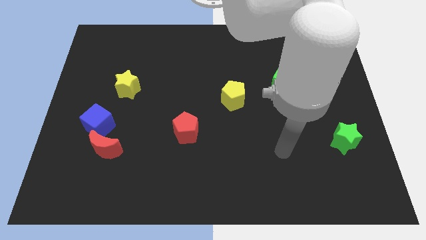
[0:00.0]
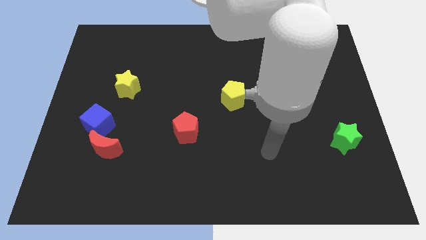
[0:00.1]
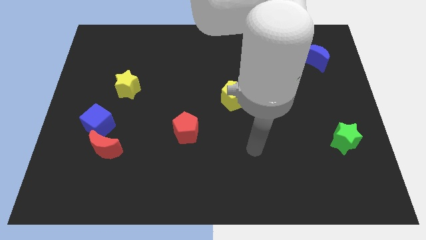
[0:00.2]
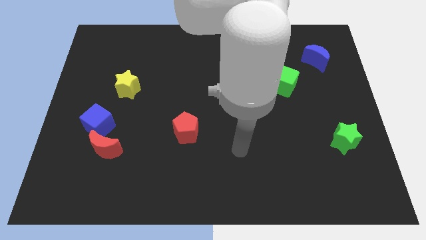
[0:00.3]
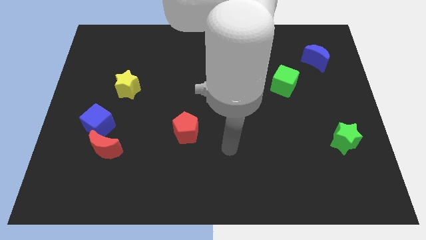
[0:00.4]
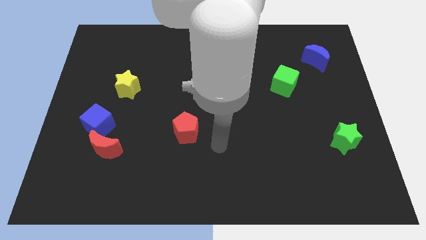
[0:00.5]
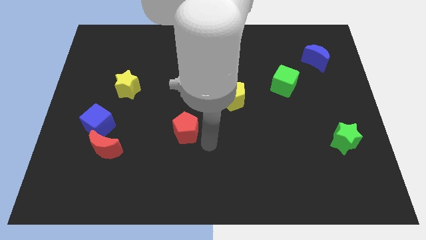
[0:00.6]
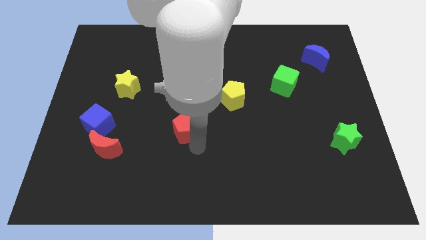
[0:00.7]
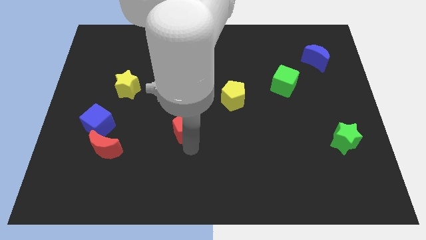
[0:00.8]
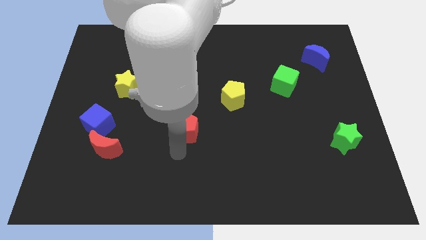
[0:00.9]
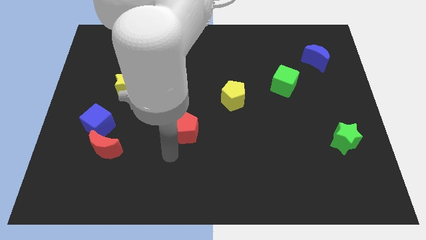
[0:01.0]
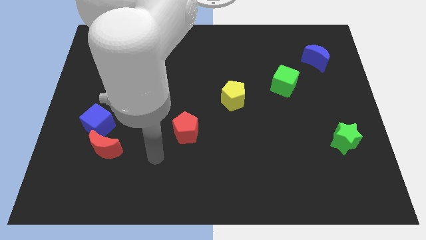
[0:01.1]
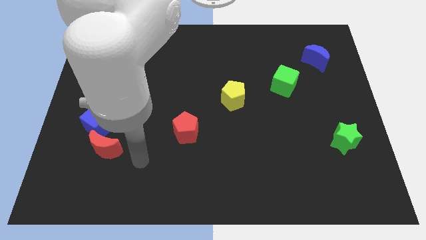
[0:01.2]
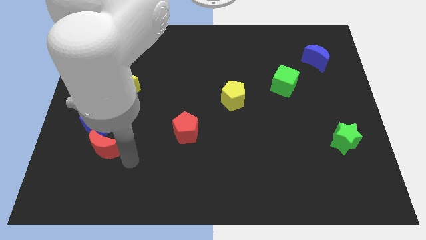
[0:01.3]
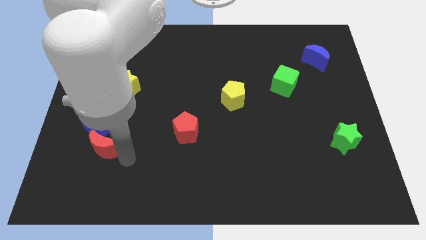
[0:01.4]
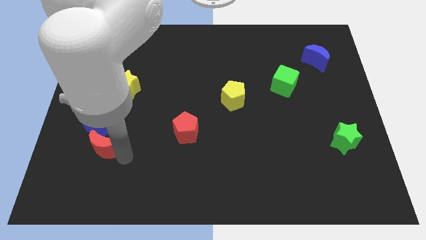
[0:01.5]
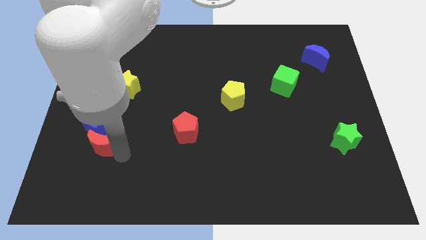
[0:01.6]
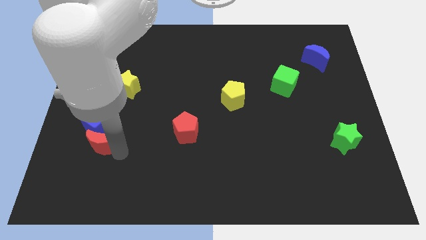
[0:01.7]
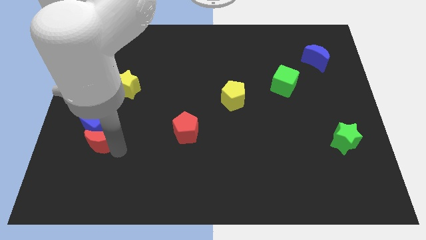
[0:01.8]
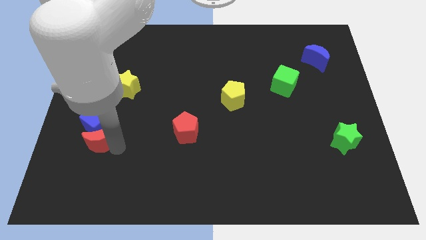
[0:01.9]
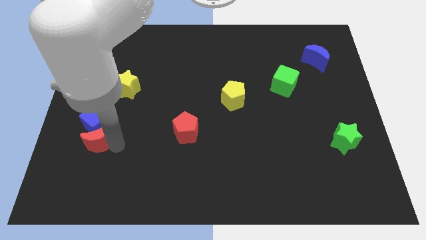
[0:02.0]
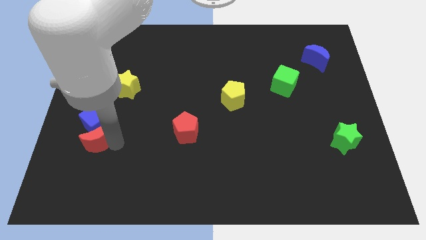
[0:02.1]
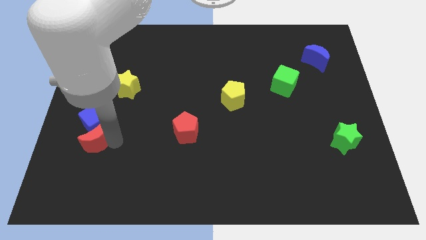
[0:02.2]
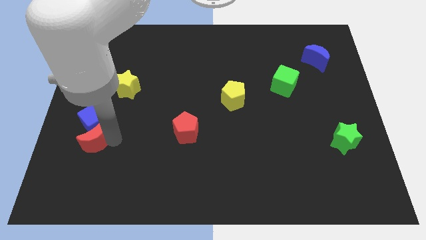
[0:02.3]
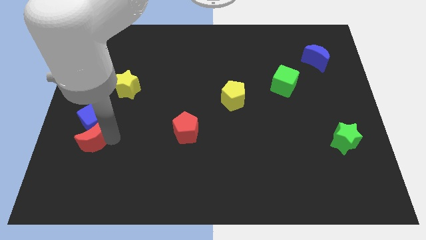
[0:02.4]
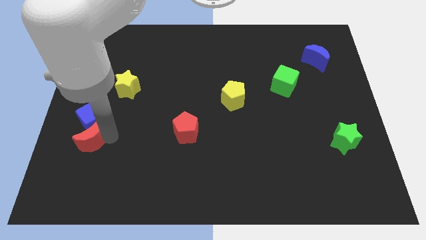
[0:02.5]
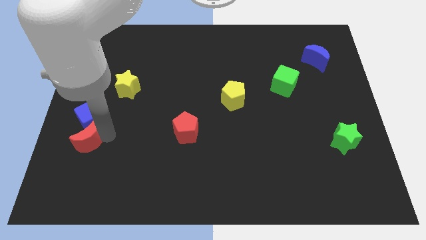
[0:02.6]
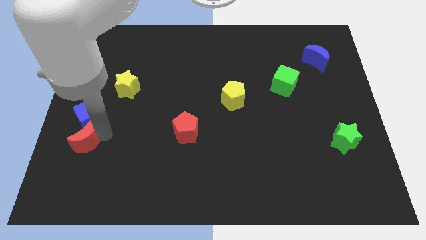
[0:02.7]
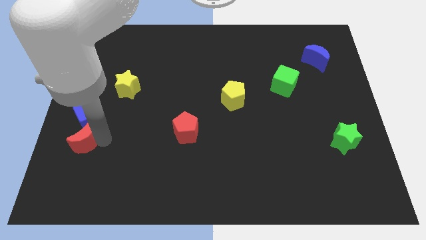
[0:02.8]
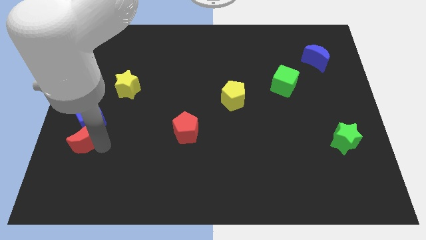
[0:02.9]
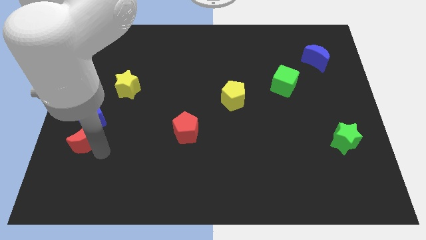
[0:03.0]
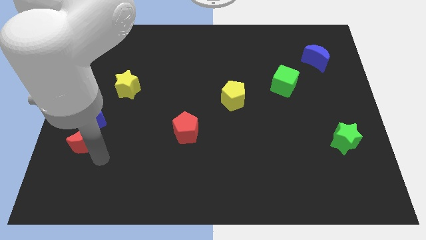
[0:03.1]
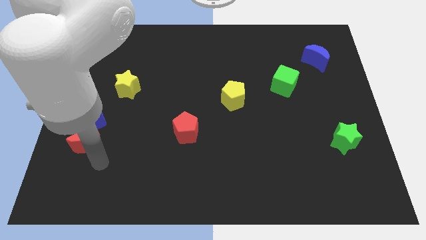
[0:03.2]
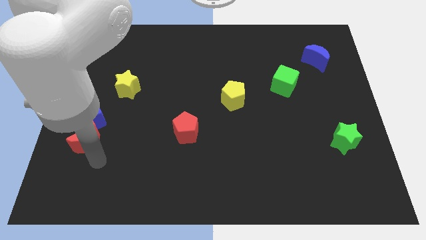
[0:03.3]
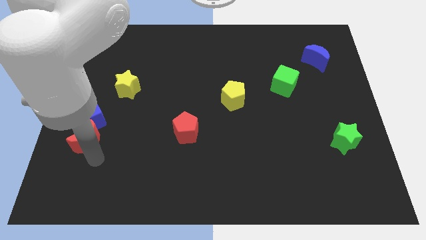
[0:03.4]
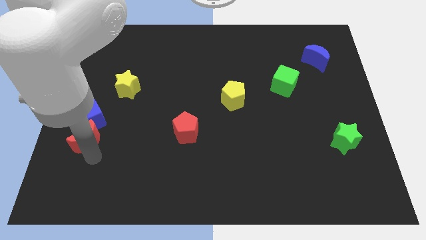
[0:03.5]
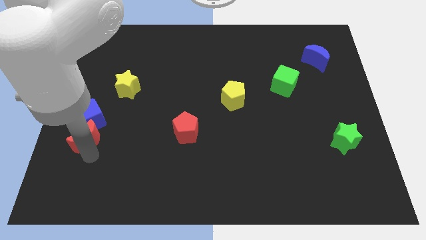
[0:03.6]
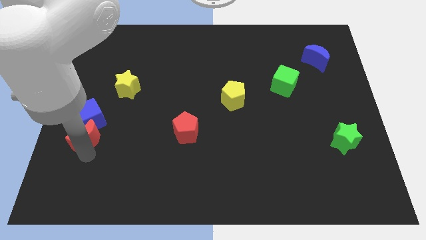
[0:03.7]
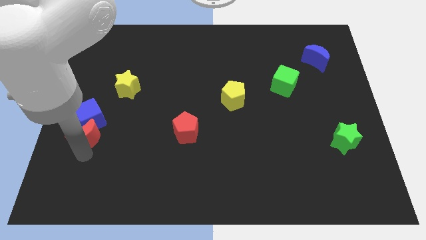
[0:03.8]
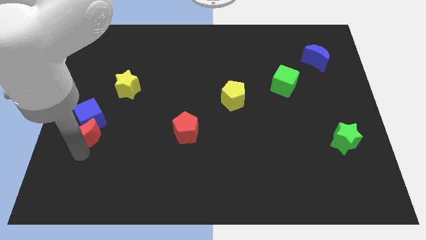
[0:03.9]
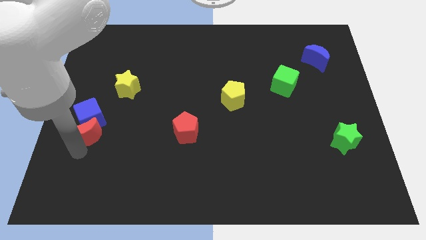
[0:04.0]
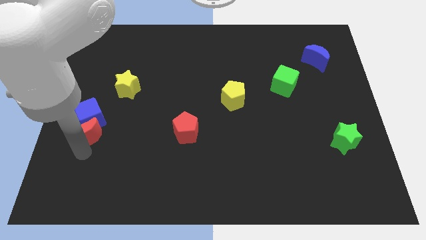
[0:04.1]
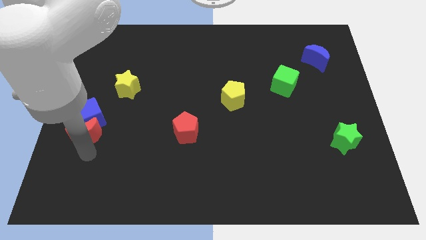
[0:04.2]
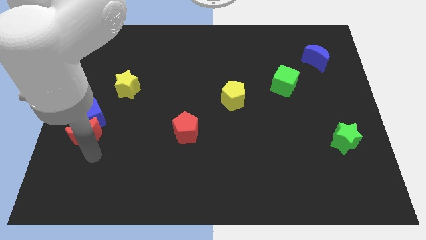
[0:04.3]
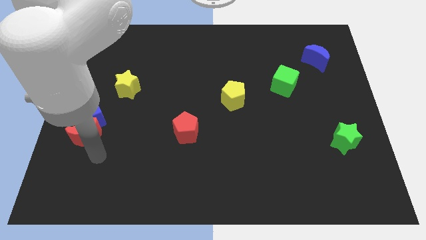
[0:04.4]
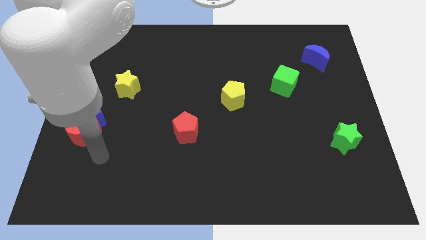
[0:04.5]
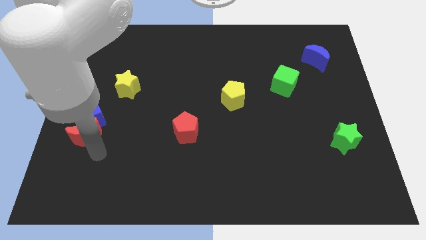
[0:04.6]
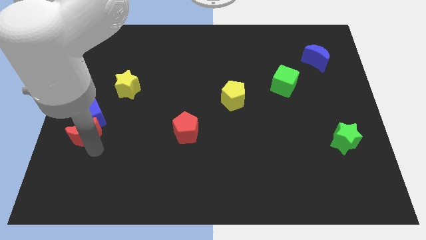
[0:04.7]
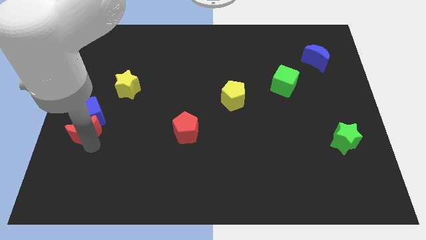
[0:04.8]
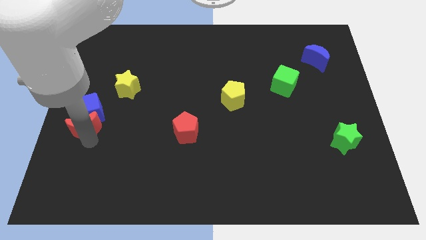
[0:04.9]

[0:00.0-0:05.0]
put the red moon to the left side of the board

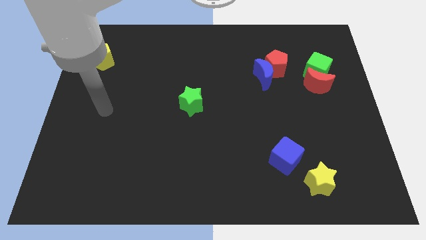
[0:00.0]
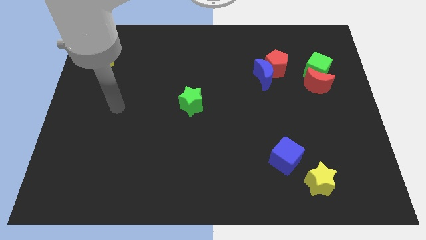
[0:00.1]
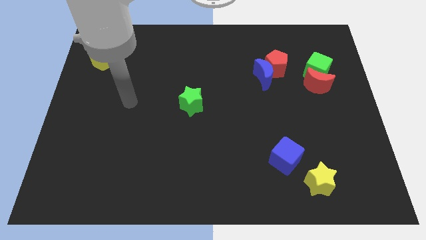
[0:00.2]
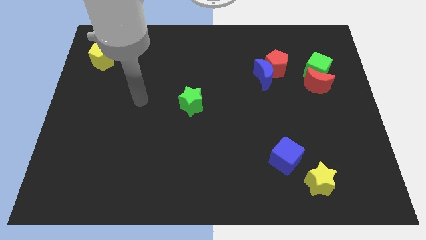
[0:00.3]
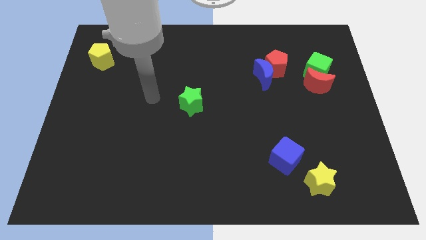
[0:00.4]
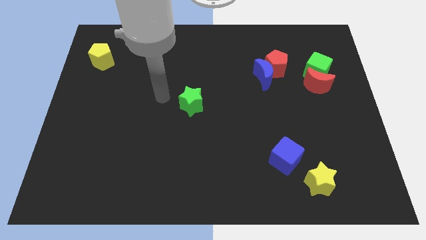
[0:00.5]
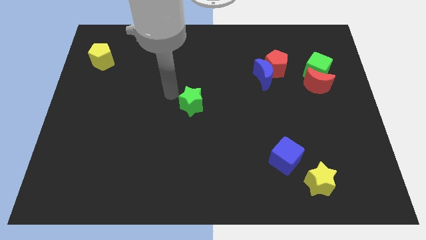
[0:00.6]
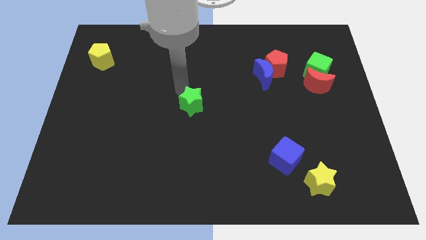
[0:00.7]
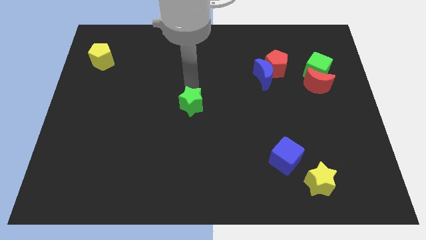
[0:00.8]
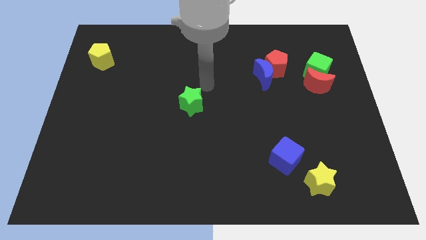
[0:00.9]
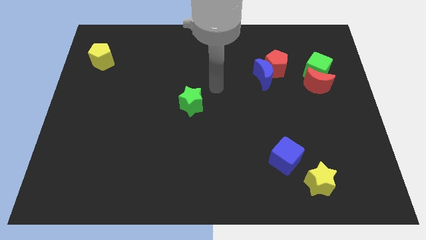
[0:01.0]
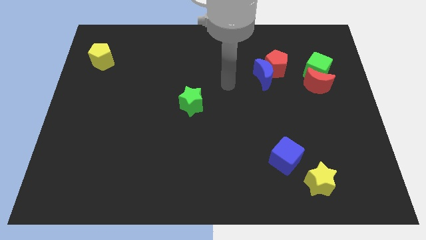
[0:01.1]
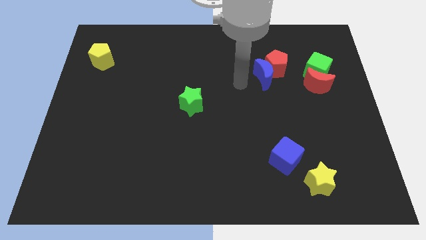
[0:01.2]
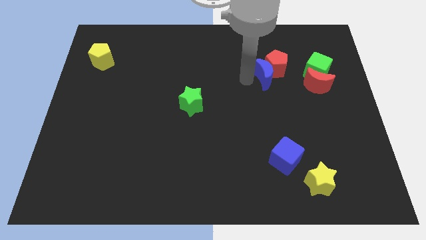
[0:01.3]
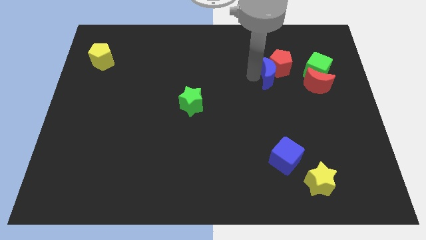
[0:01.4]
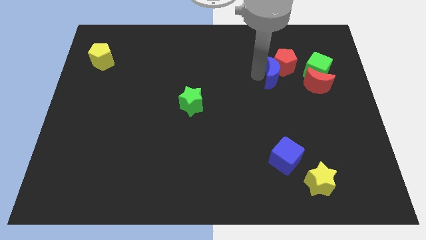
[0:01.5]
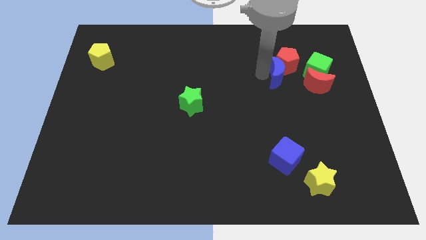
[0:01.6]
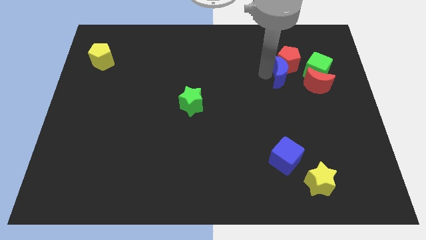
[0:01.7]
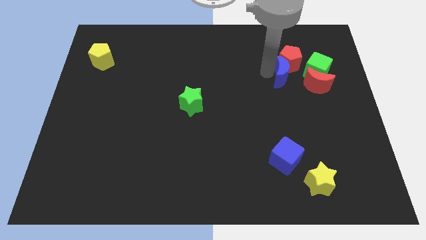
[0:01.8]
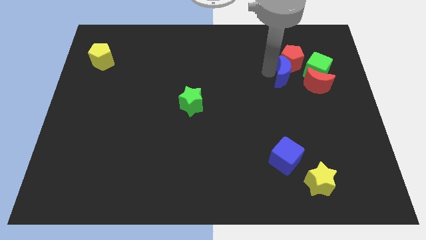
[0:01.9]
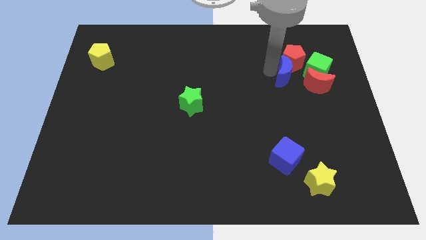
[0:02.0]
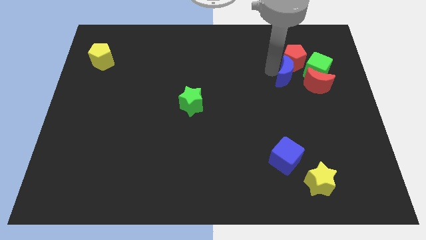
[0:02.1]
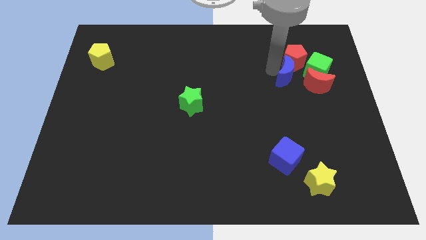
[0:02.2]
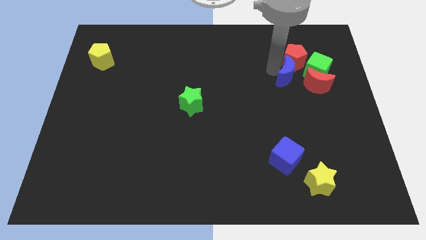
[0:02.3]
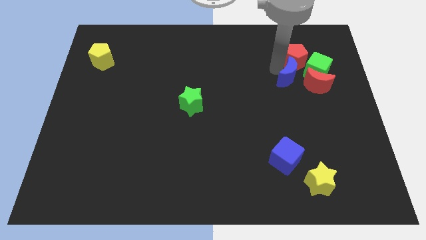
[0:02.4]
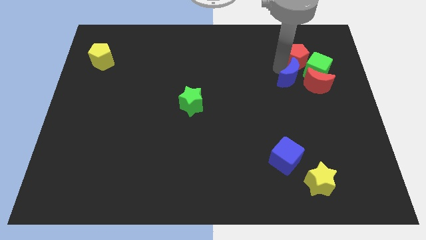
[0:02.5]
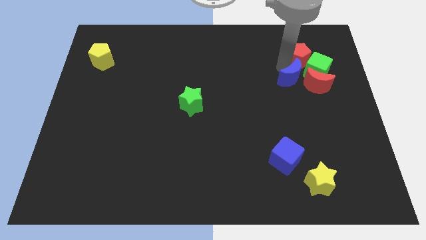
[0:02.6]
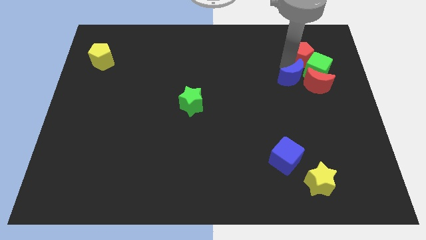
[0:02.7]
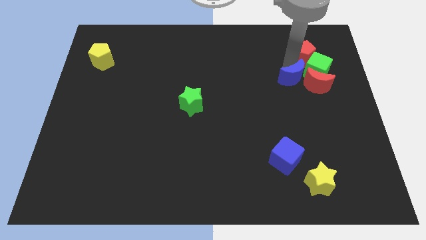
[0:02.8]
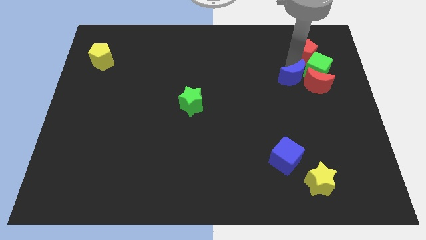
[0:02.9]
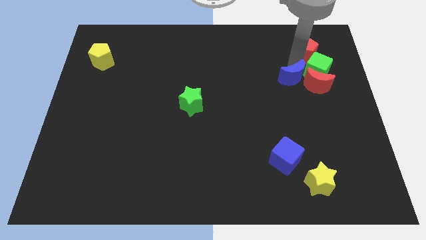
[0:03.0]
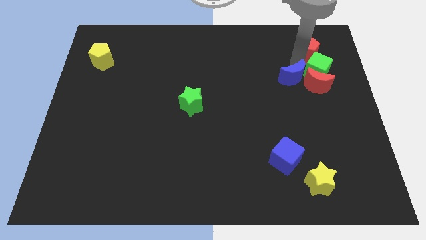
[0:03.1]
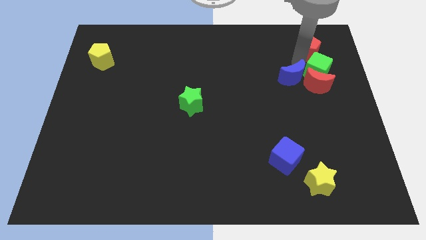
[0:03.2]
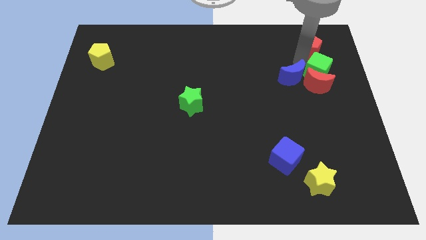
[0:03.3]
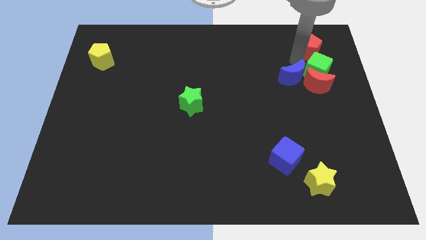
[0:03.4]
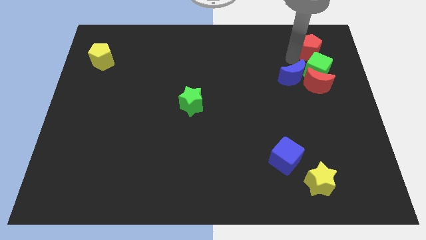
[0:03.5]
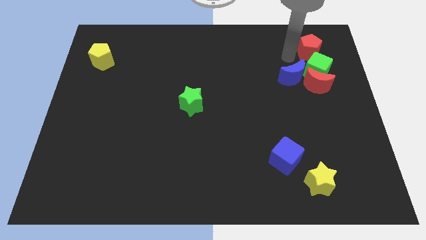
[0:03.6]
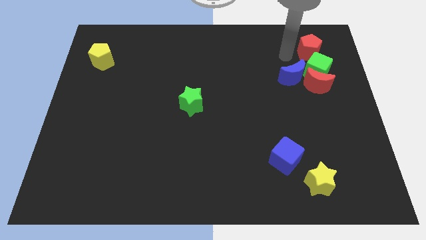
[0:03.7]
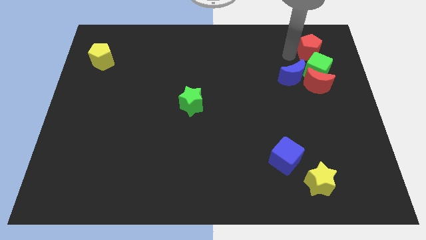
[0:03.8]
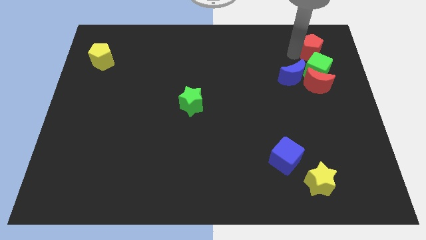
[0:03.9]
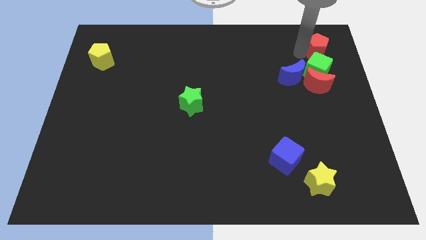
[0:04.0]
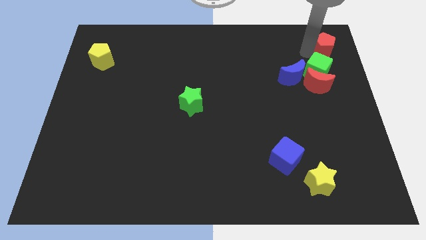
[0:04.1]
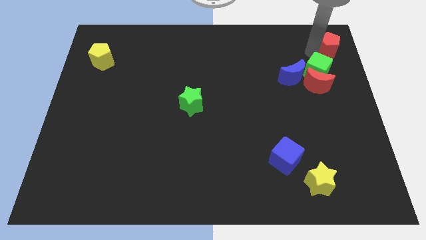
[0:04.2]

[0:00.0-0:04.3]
push the red pentagon to the top right
